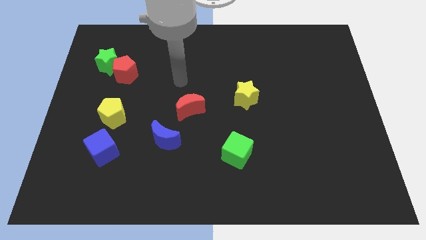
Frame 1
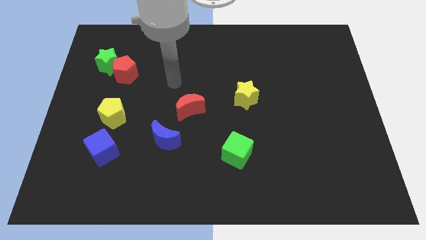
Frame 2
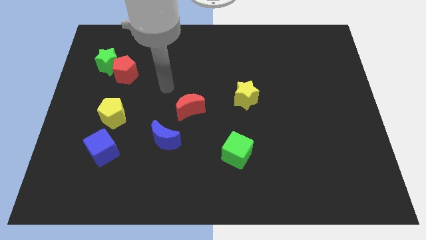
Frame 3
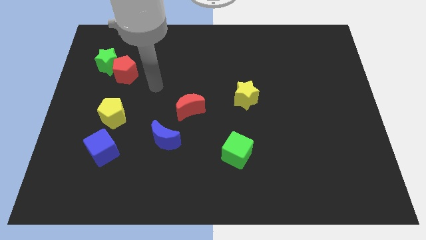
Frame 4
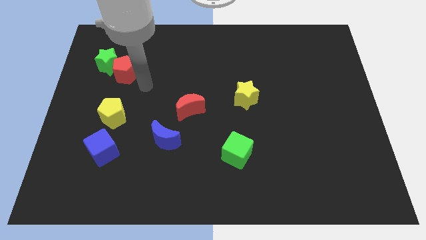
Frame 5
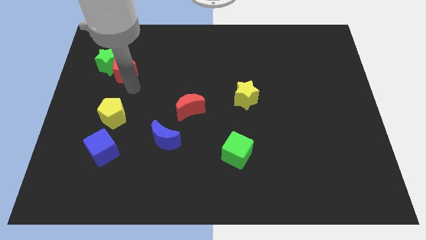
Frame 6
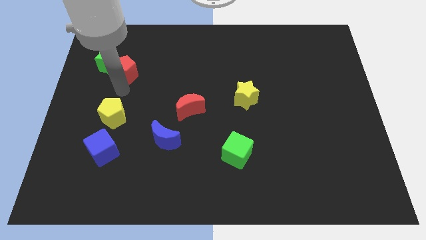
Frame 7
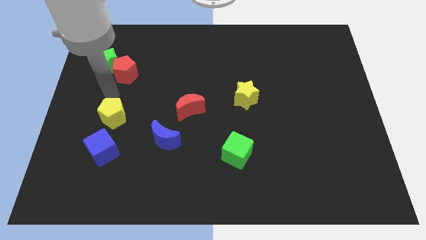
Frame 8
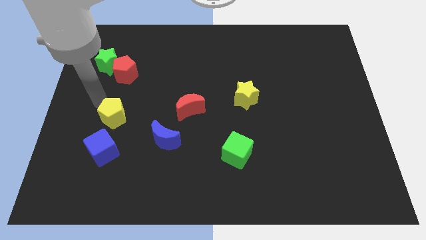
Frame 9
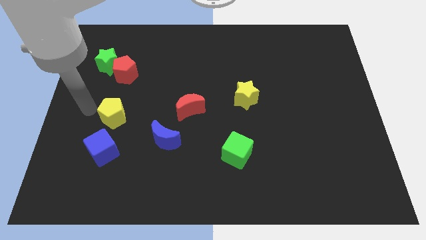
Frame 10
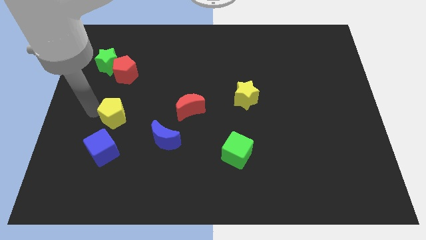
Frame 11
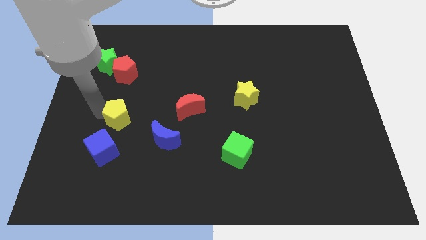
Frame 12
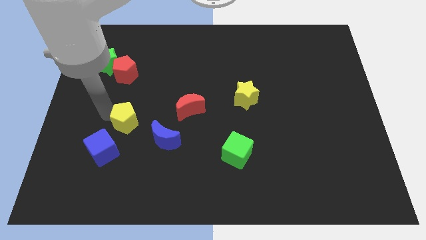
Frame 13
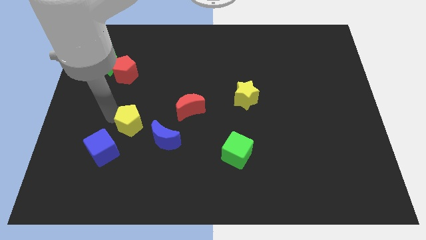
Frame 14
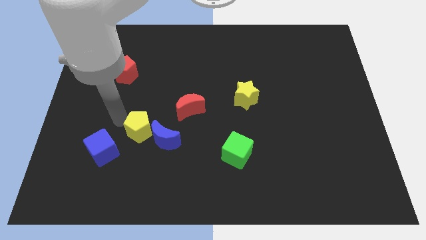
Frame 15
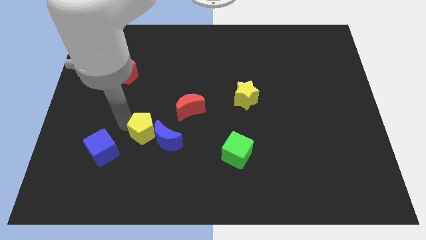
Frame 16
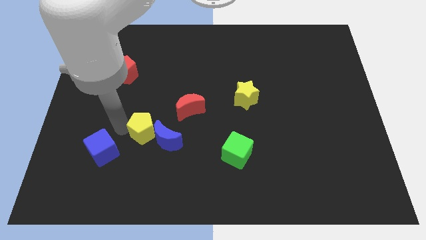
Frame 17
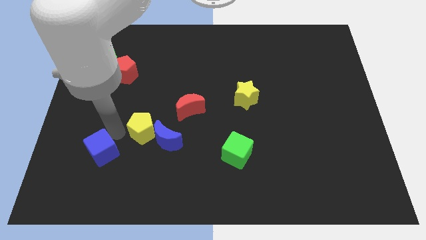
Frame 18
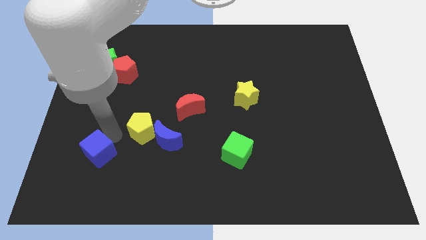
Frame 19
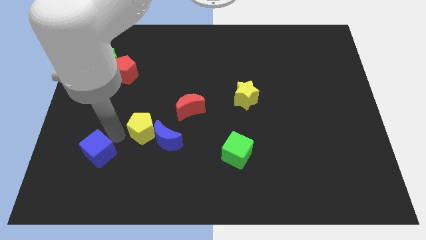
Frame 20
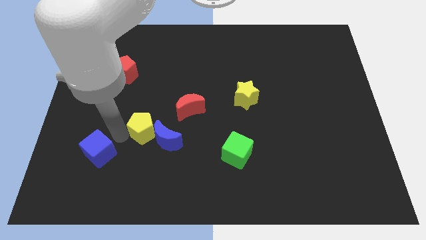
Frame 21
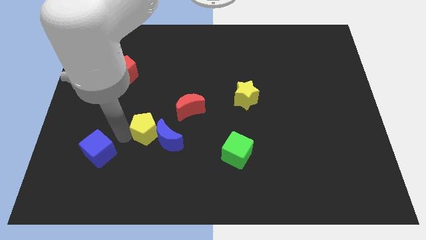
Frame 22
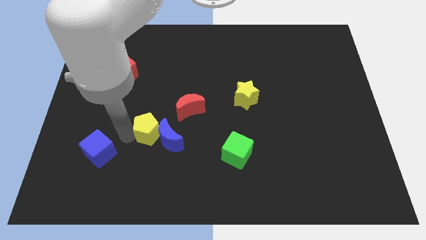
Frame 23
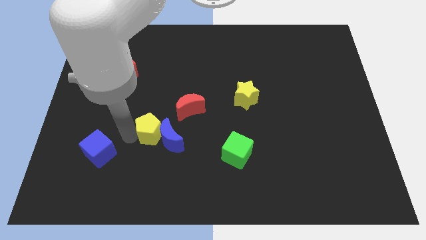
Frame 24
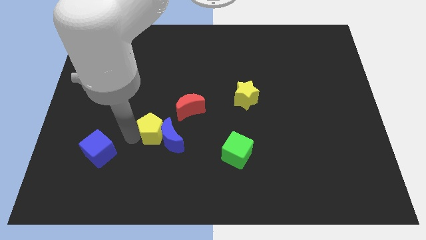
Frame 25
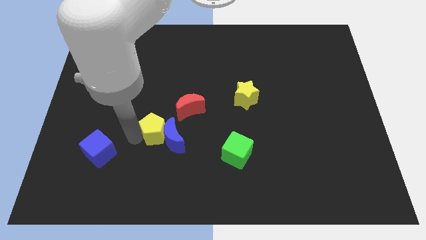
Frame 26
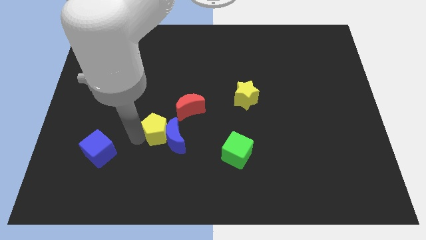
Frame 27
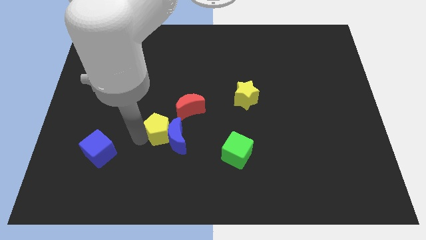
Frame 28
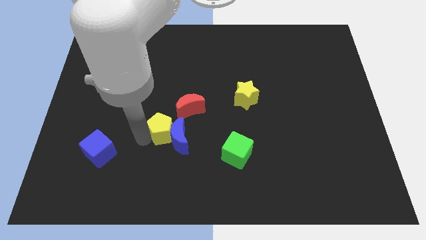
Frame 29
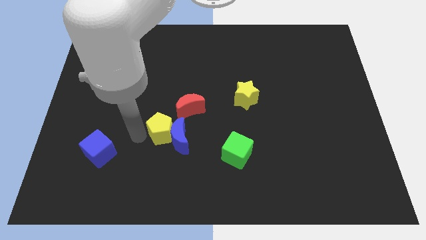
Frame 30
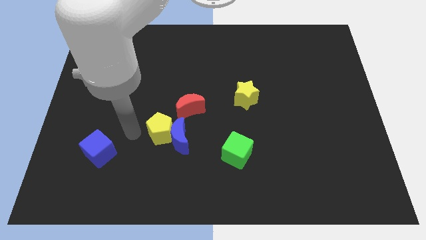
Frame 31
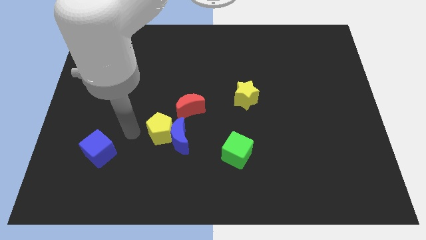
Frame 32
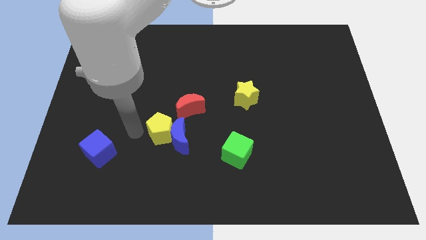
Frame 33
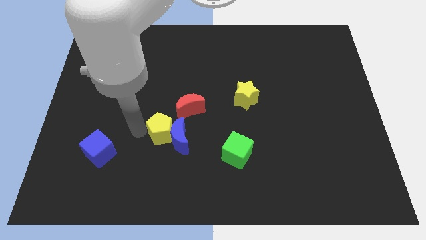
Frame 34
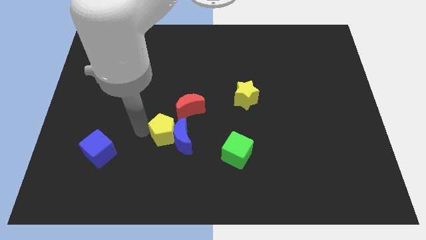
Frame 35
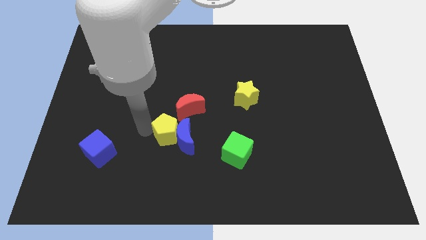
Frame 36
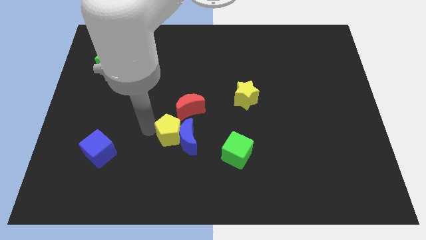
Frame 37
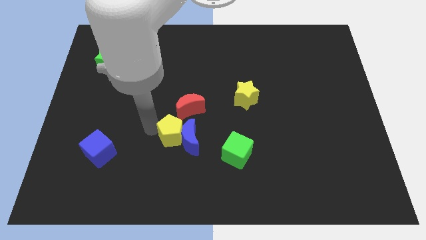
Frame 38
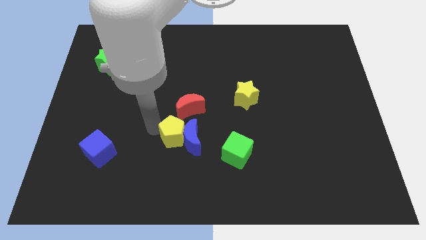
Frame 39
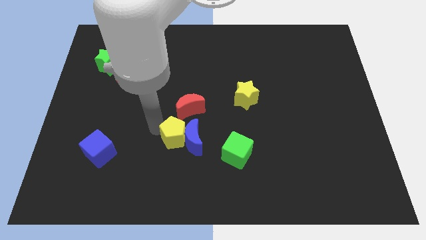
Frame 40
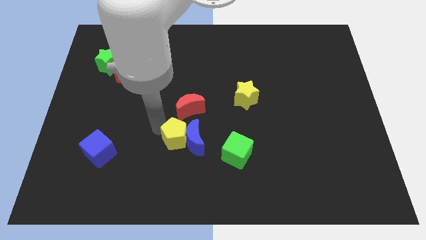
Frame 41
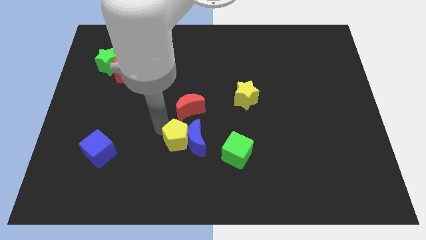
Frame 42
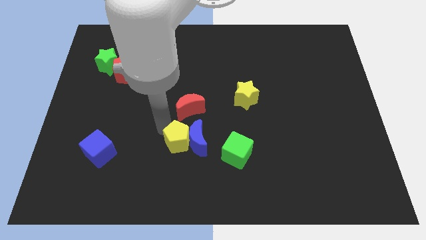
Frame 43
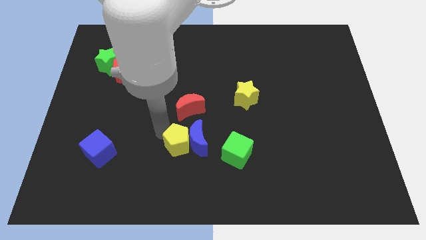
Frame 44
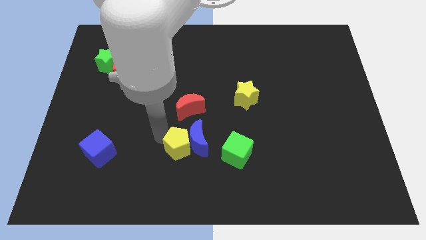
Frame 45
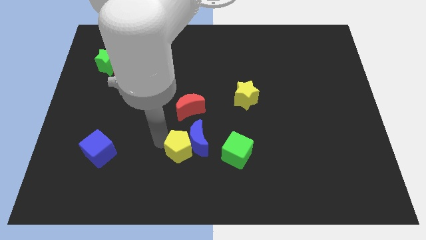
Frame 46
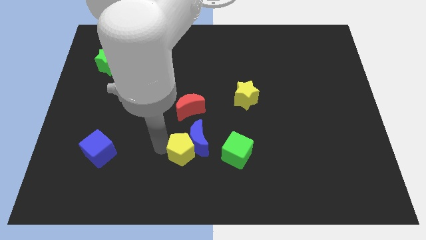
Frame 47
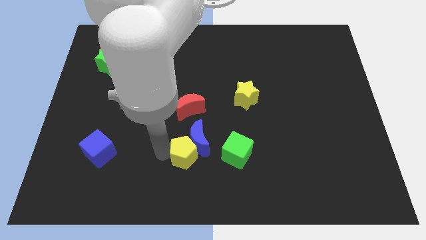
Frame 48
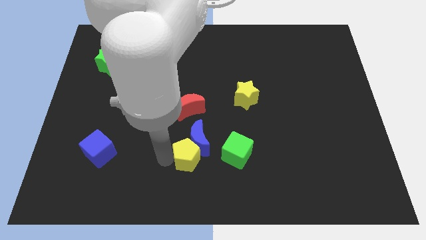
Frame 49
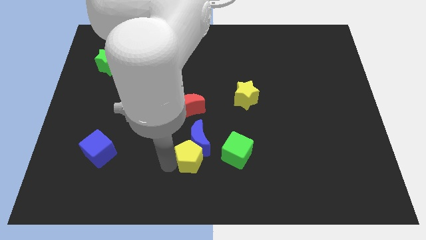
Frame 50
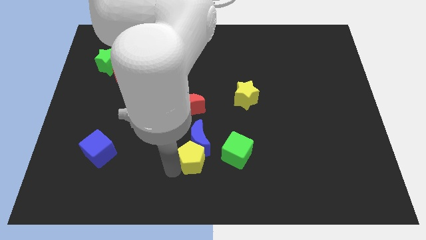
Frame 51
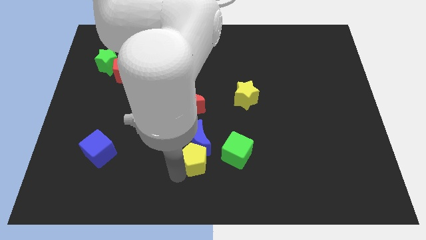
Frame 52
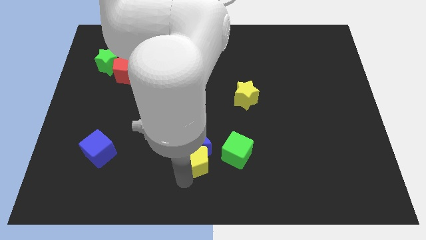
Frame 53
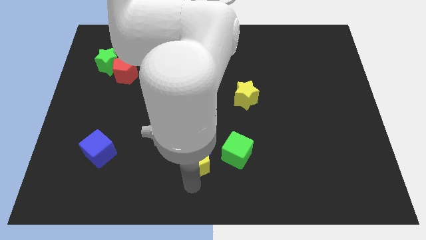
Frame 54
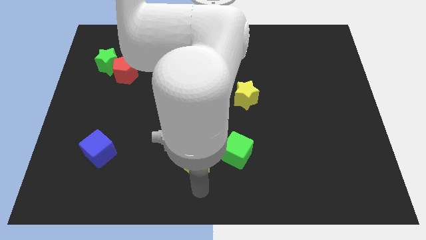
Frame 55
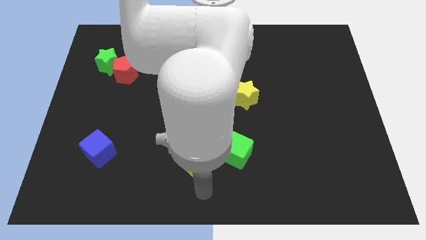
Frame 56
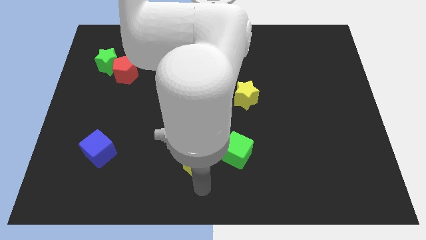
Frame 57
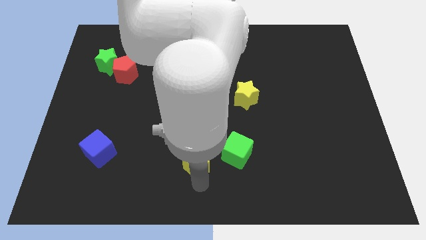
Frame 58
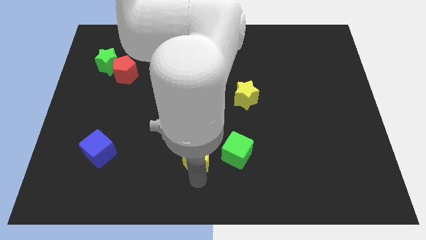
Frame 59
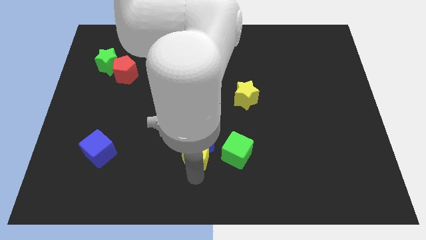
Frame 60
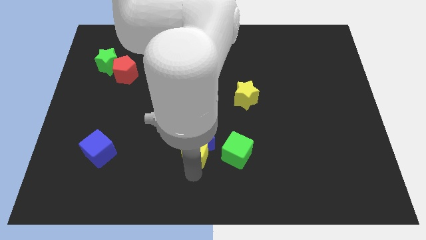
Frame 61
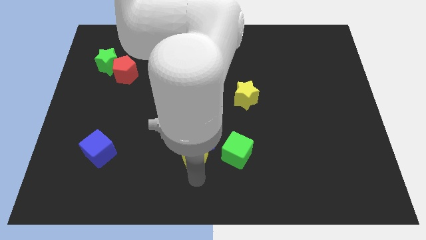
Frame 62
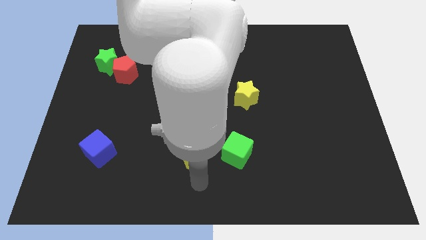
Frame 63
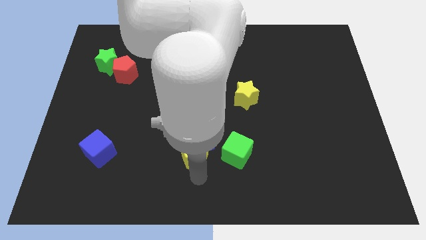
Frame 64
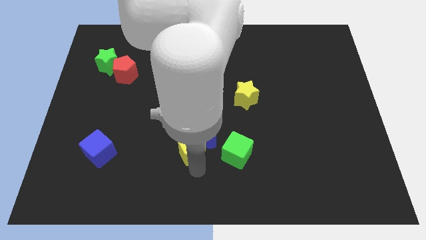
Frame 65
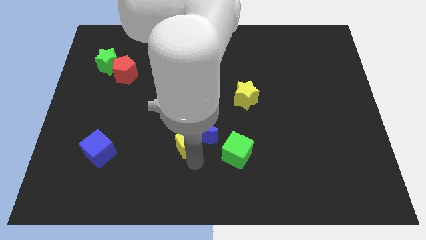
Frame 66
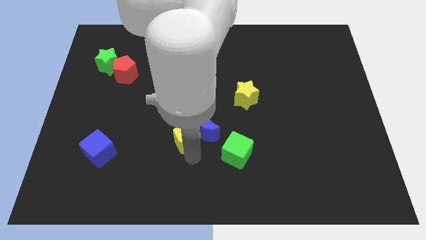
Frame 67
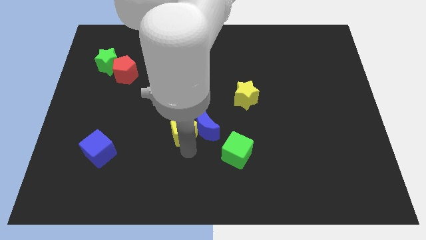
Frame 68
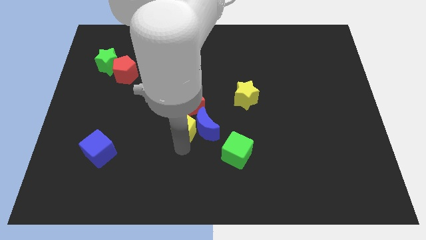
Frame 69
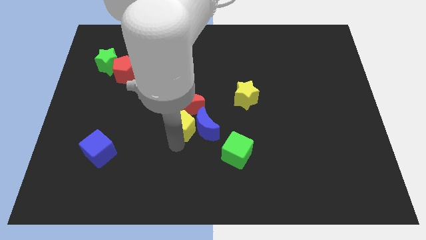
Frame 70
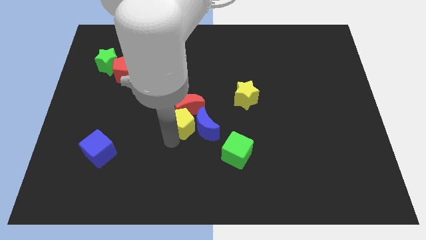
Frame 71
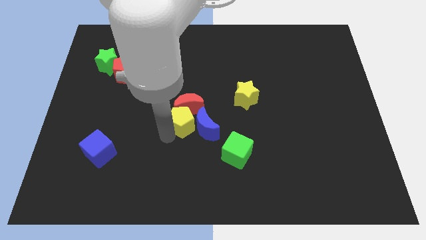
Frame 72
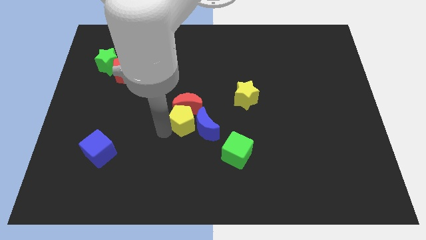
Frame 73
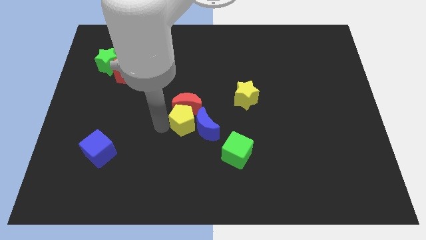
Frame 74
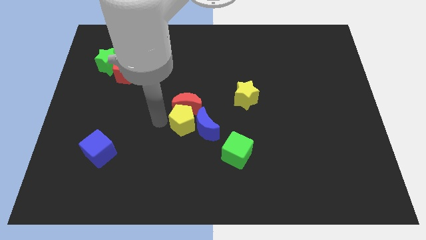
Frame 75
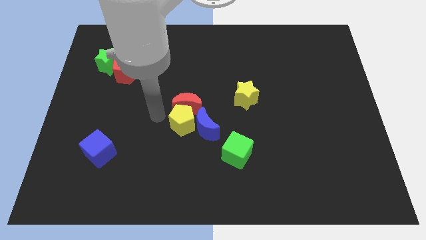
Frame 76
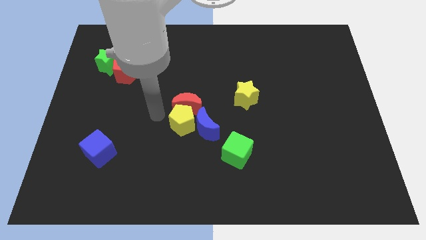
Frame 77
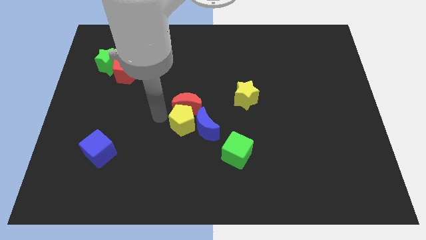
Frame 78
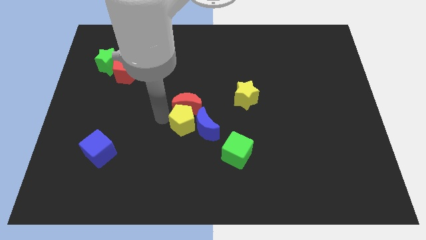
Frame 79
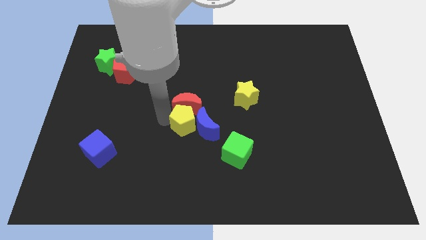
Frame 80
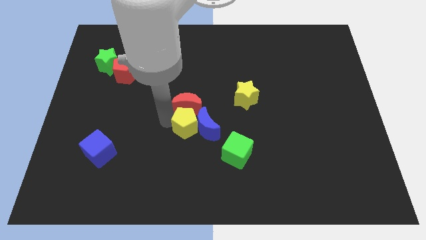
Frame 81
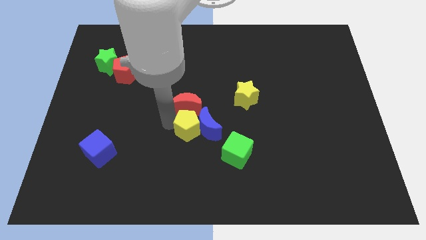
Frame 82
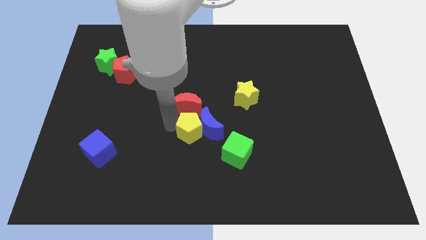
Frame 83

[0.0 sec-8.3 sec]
put the yellow pentagon to the top left of the green cube
